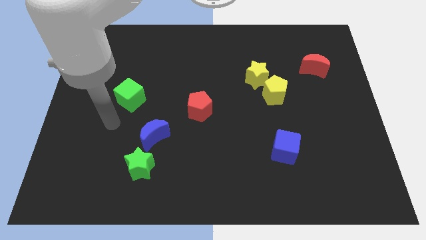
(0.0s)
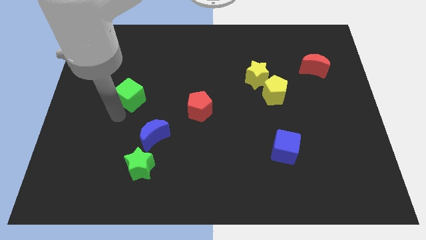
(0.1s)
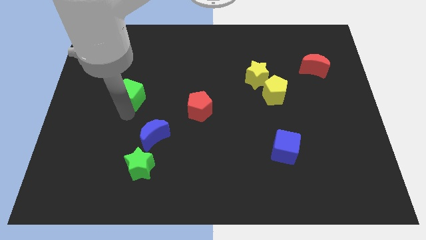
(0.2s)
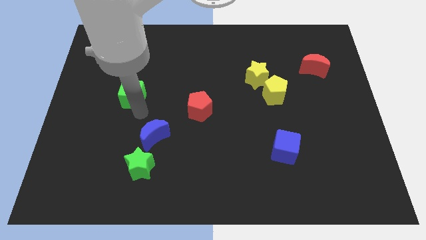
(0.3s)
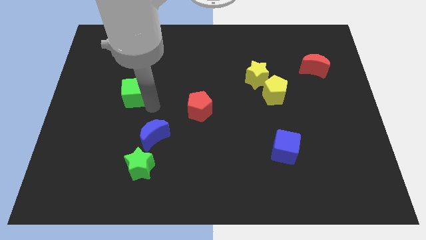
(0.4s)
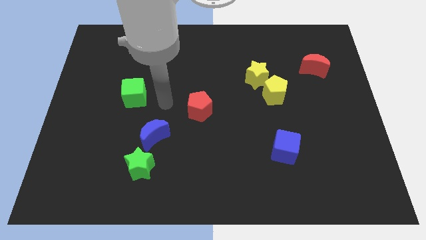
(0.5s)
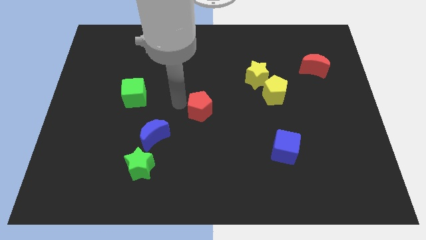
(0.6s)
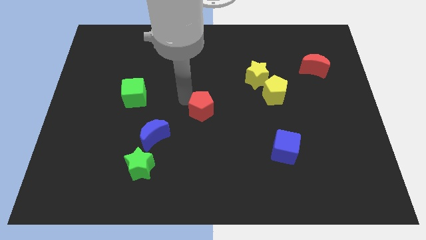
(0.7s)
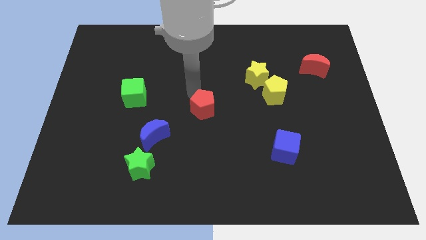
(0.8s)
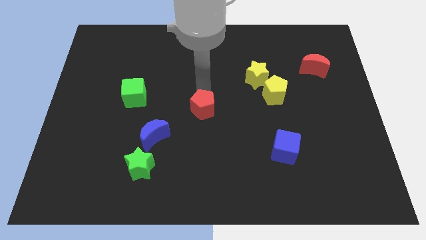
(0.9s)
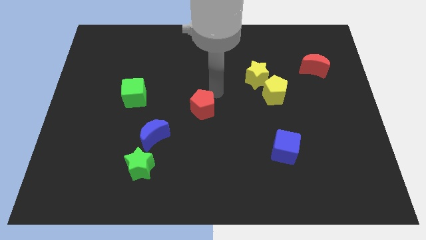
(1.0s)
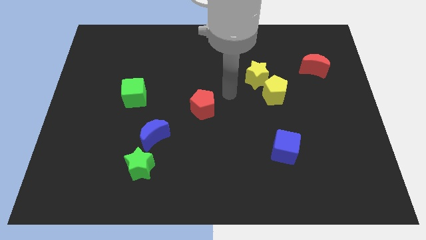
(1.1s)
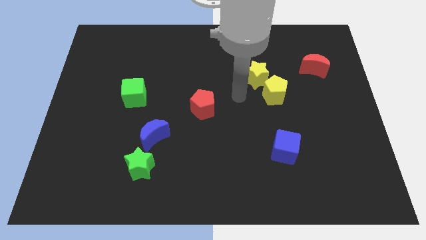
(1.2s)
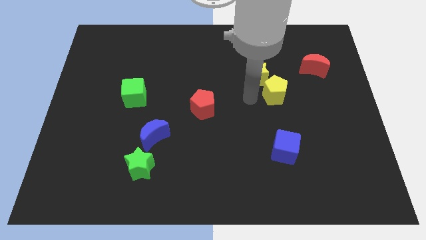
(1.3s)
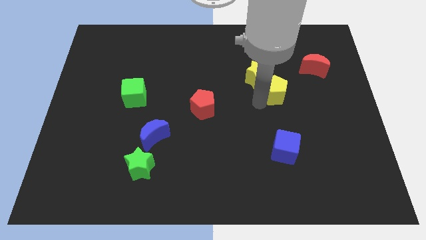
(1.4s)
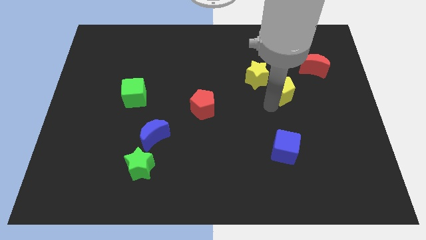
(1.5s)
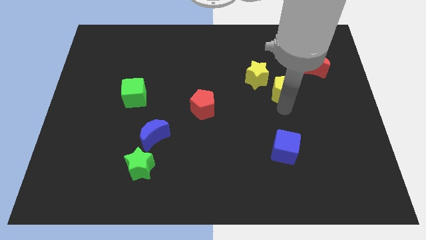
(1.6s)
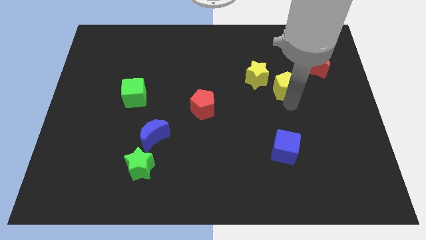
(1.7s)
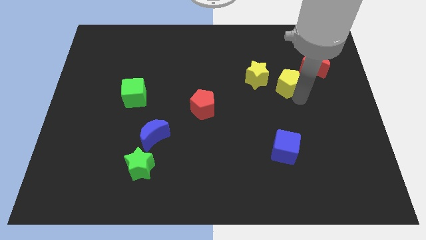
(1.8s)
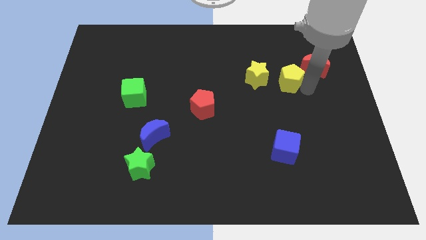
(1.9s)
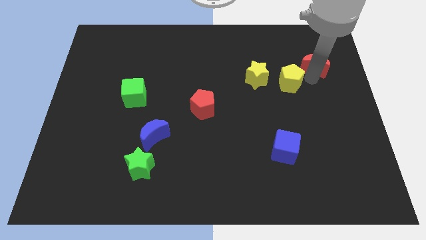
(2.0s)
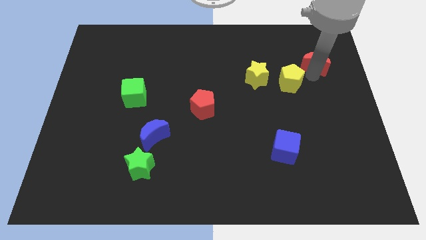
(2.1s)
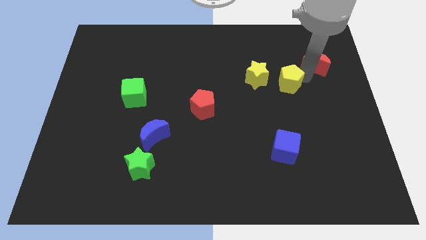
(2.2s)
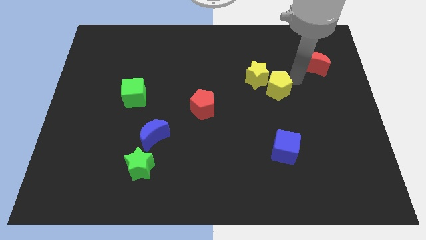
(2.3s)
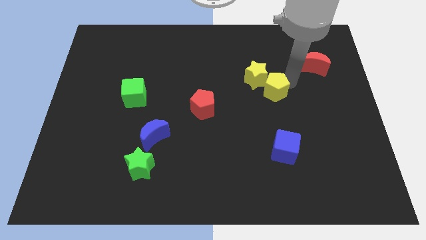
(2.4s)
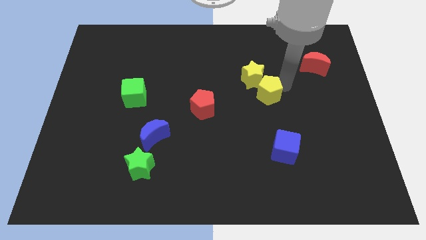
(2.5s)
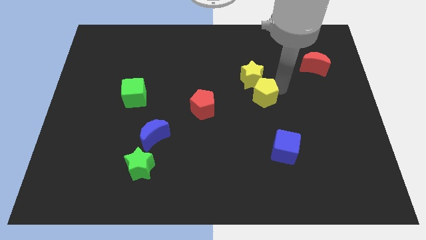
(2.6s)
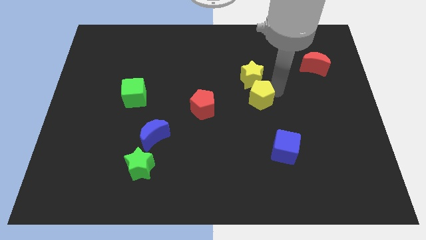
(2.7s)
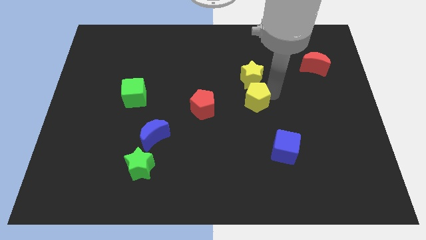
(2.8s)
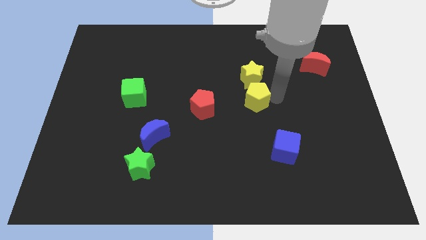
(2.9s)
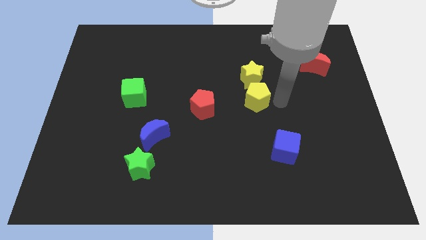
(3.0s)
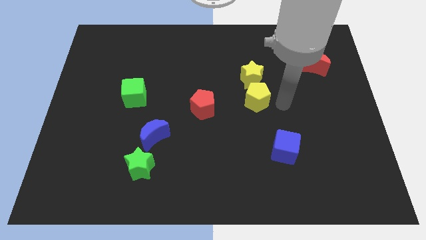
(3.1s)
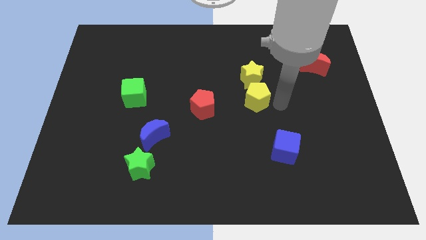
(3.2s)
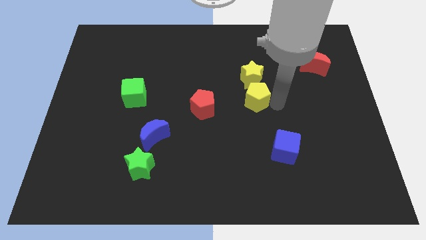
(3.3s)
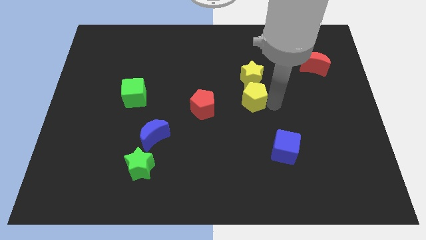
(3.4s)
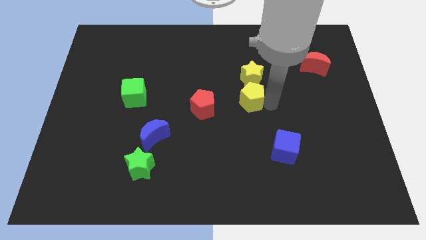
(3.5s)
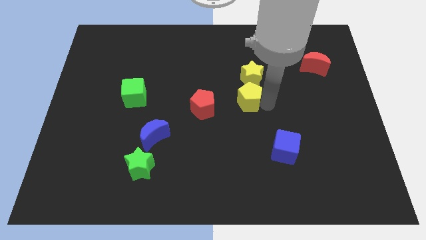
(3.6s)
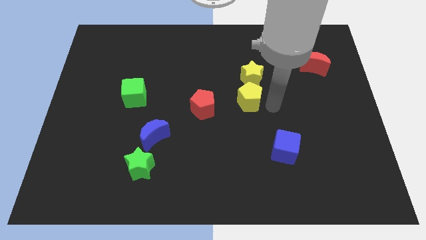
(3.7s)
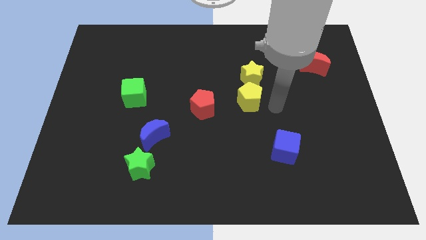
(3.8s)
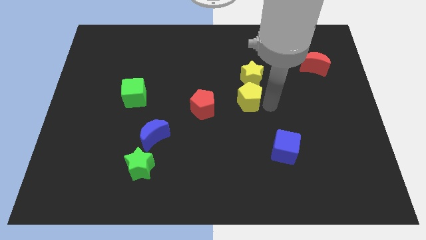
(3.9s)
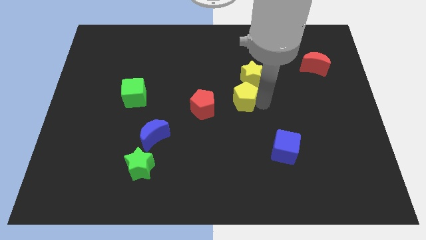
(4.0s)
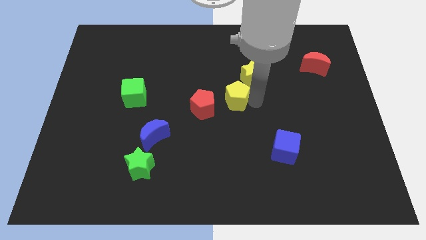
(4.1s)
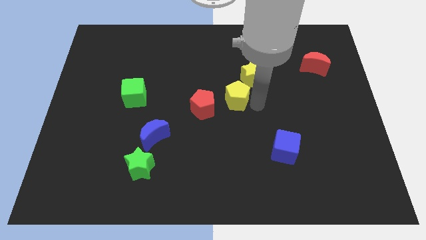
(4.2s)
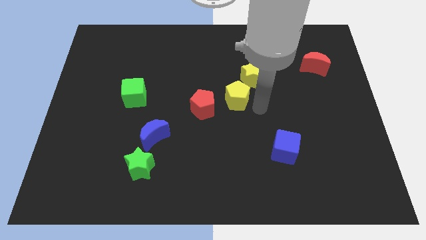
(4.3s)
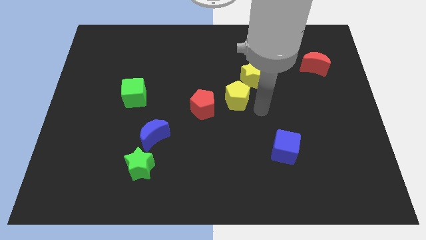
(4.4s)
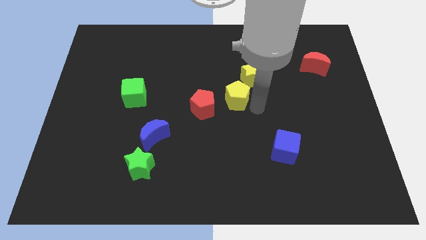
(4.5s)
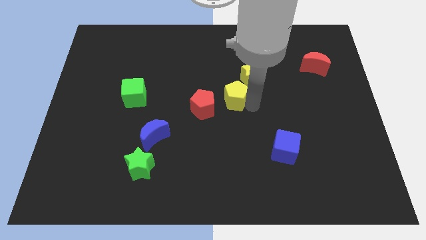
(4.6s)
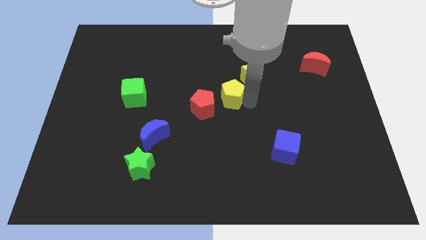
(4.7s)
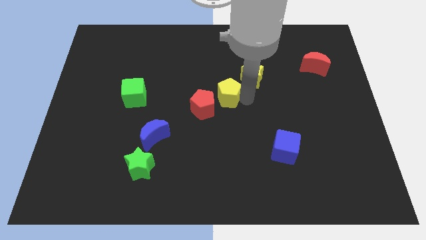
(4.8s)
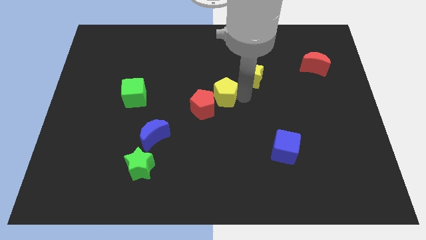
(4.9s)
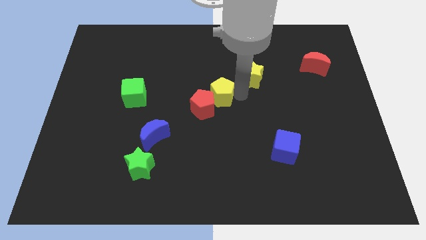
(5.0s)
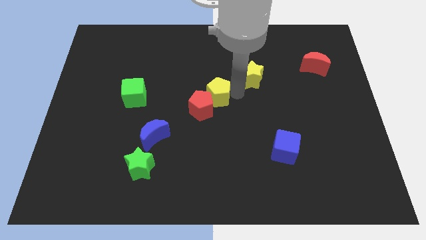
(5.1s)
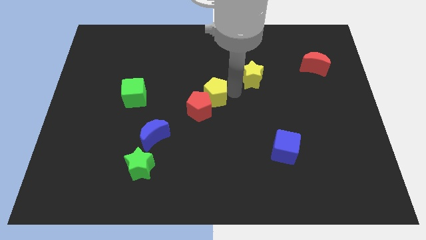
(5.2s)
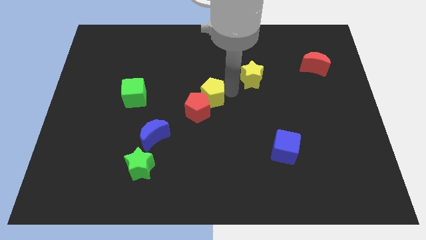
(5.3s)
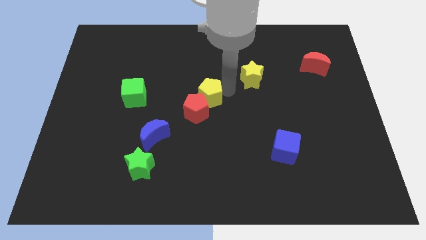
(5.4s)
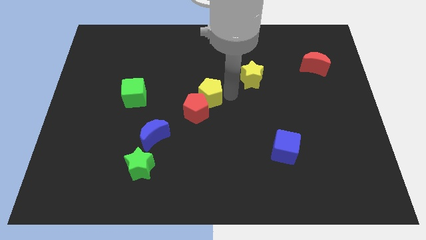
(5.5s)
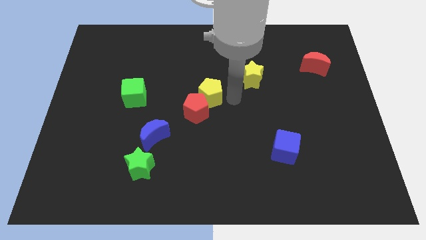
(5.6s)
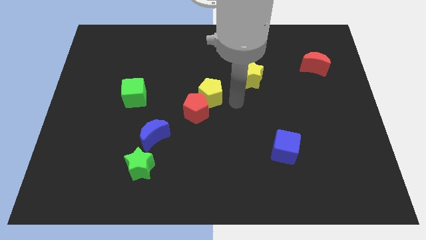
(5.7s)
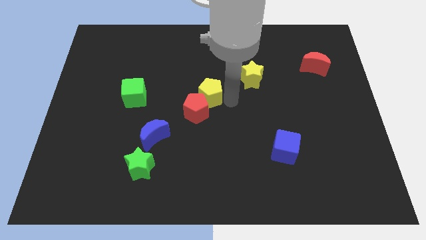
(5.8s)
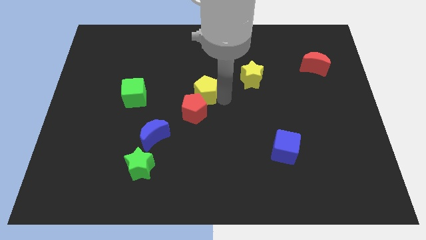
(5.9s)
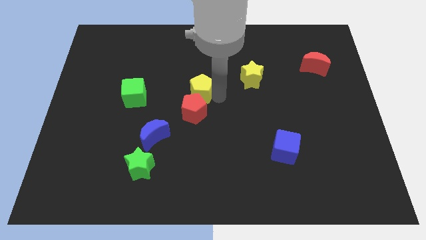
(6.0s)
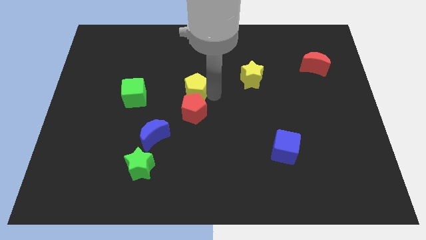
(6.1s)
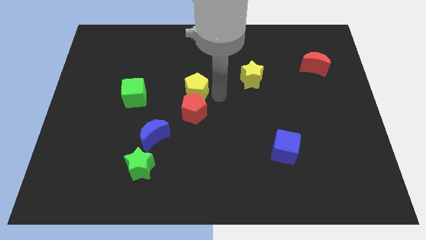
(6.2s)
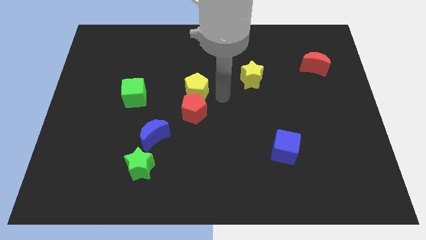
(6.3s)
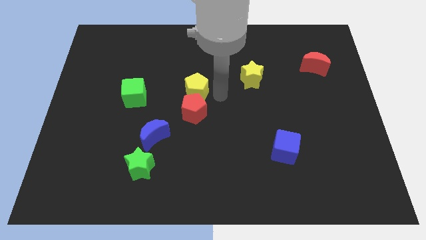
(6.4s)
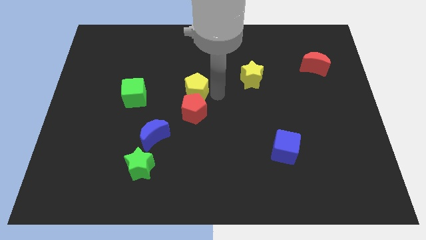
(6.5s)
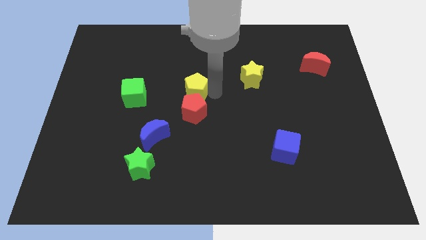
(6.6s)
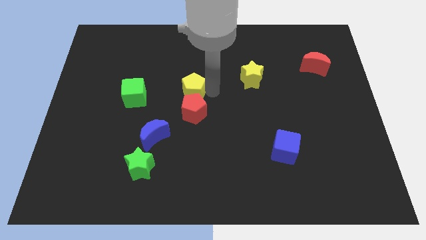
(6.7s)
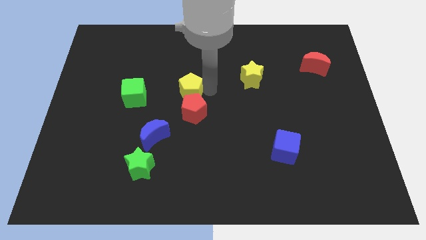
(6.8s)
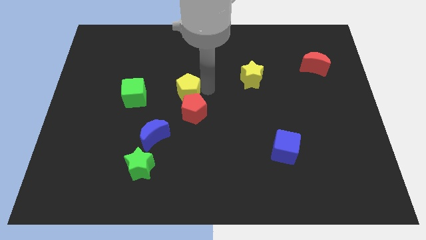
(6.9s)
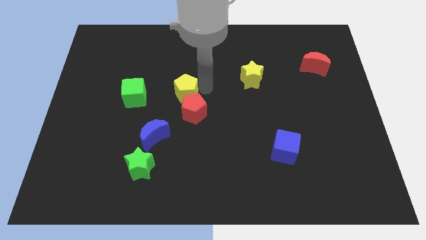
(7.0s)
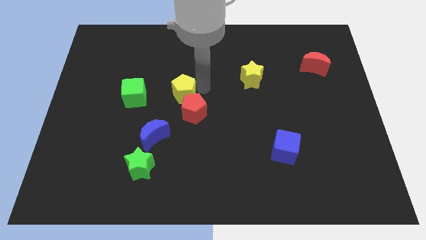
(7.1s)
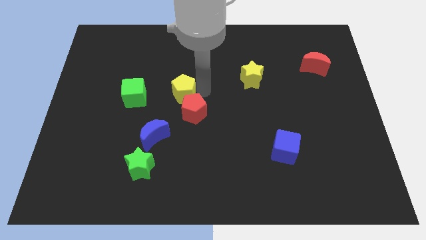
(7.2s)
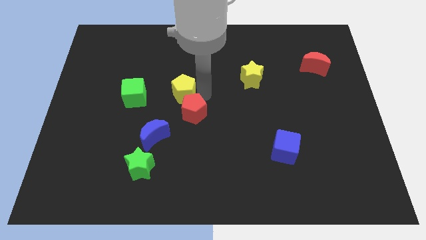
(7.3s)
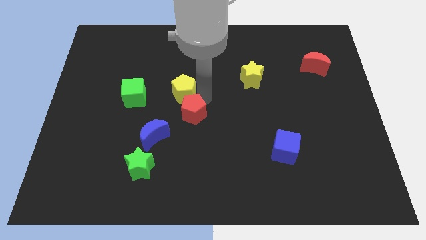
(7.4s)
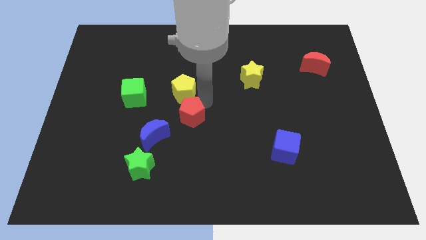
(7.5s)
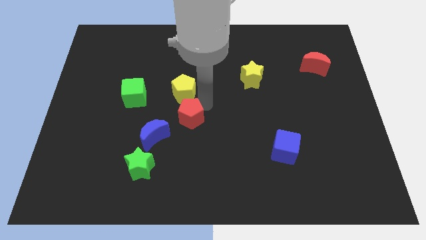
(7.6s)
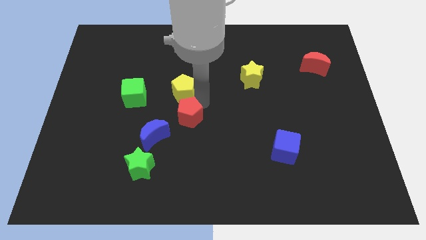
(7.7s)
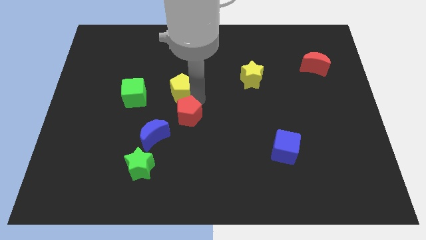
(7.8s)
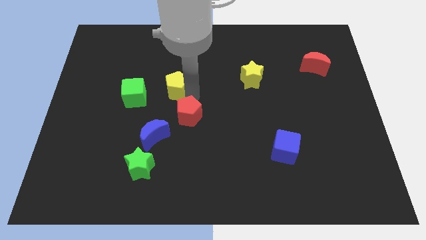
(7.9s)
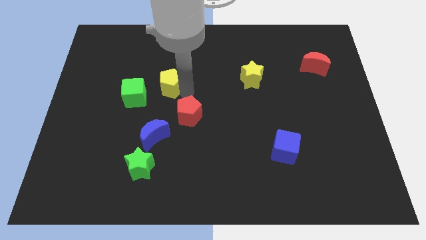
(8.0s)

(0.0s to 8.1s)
slide the yellow pentagon diagonally up and to the right of the green cube
